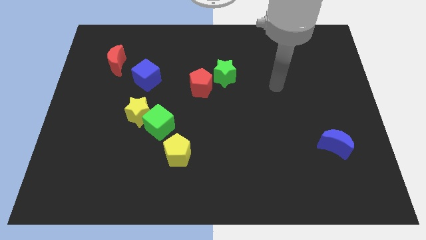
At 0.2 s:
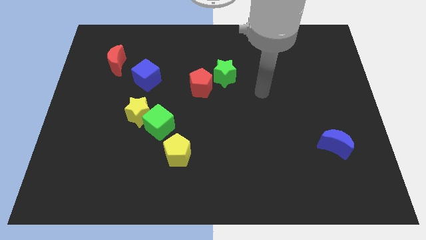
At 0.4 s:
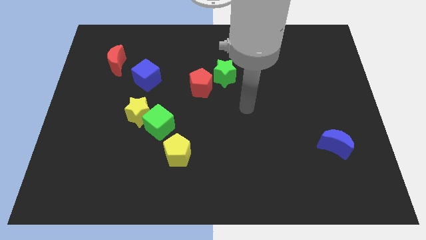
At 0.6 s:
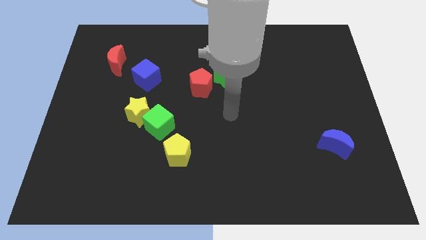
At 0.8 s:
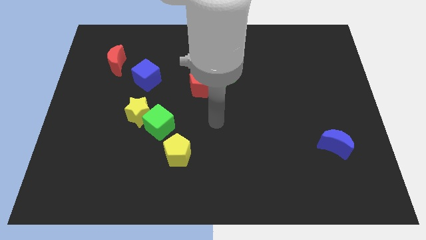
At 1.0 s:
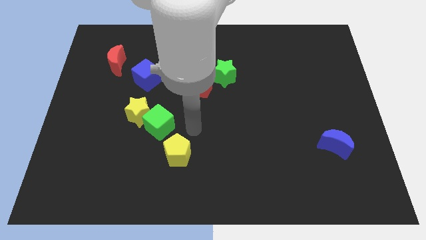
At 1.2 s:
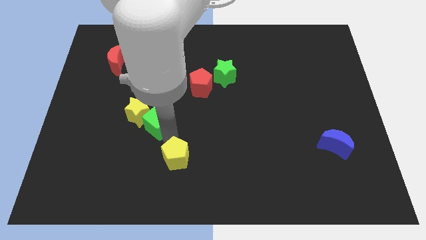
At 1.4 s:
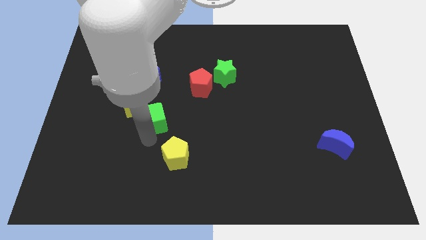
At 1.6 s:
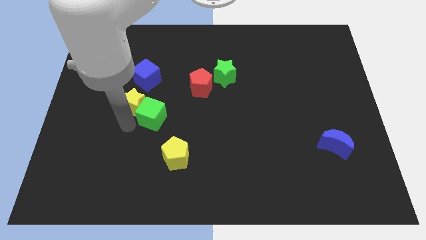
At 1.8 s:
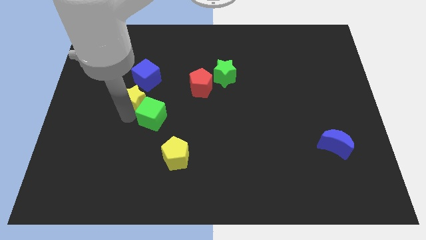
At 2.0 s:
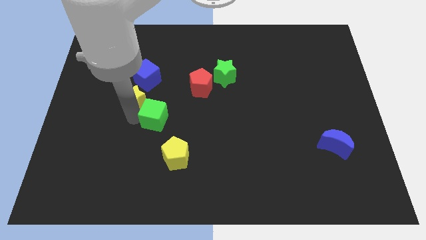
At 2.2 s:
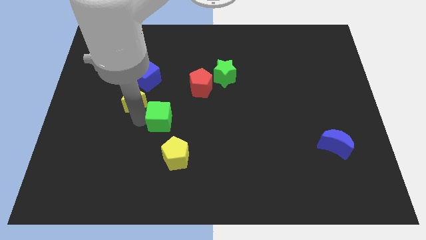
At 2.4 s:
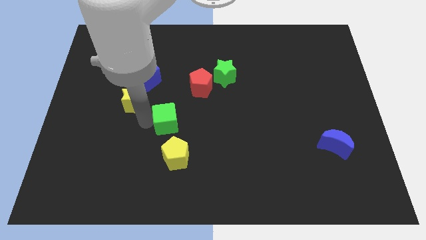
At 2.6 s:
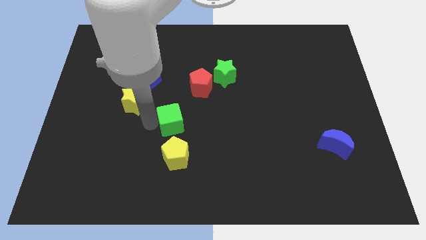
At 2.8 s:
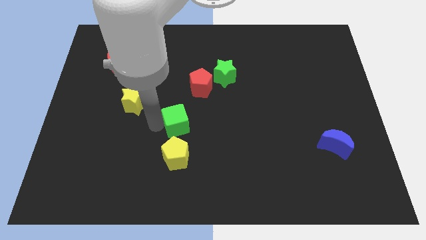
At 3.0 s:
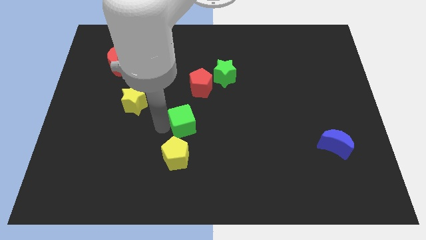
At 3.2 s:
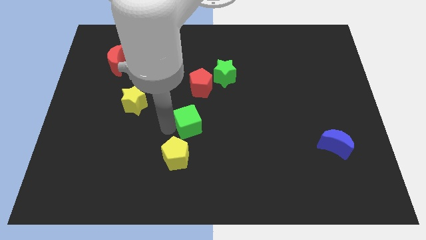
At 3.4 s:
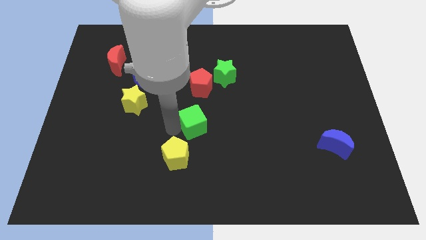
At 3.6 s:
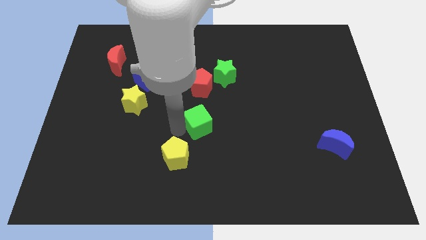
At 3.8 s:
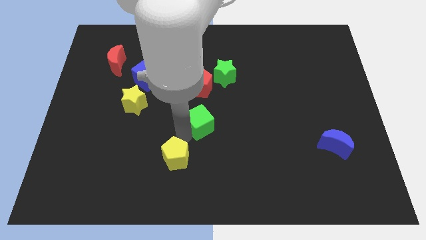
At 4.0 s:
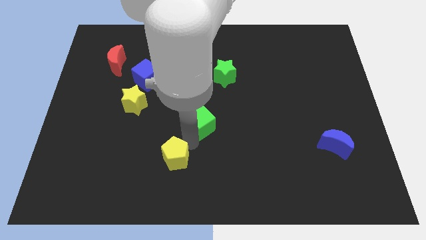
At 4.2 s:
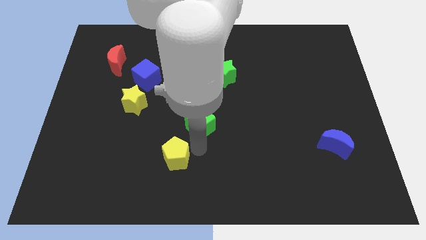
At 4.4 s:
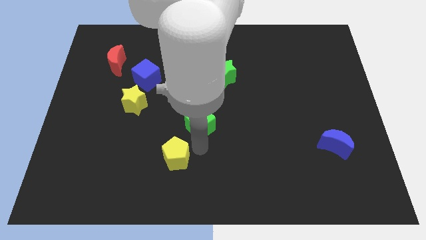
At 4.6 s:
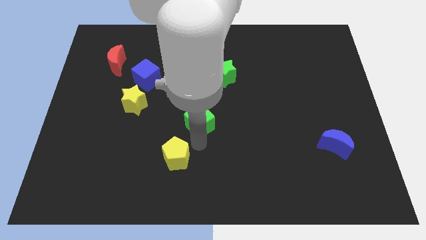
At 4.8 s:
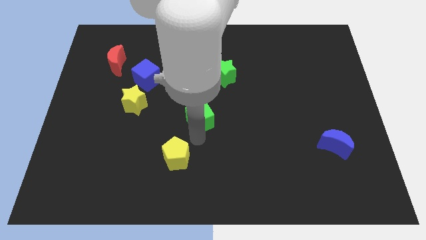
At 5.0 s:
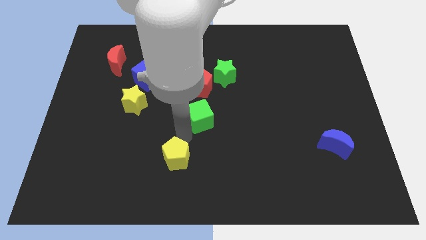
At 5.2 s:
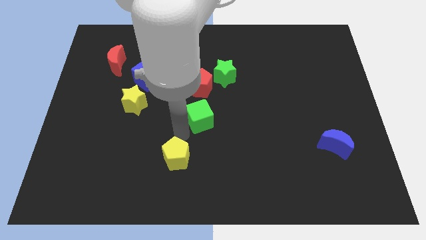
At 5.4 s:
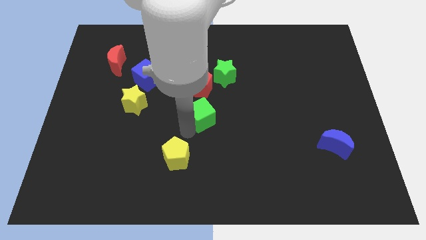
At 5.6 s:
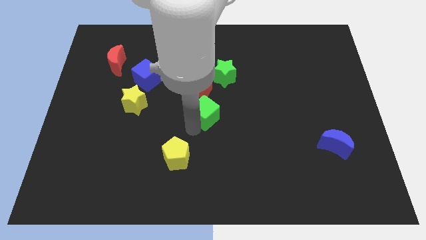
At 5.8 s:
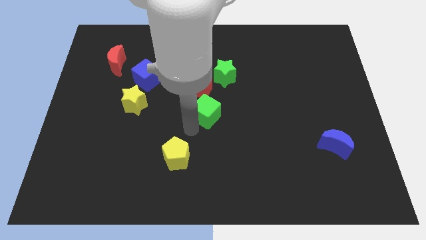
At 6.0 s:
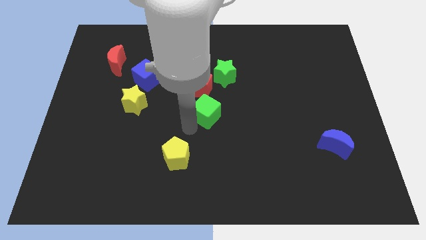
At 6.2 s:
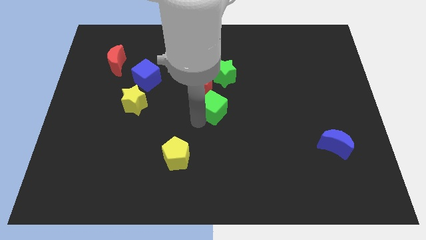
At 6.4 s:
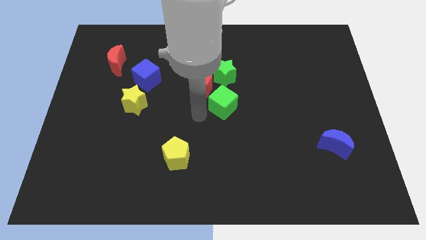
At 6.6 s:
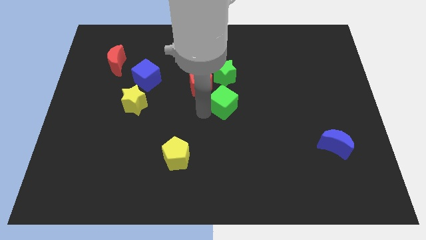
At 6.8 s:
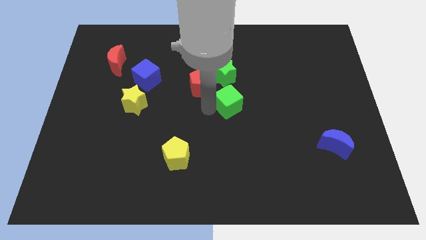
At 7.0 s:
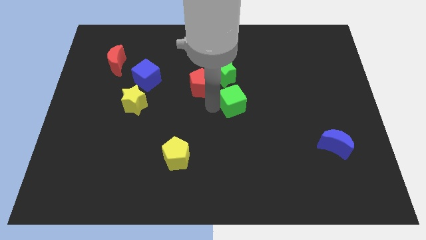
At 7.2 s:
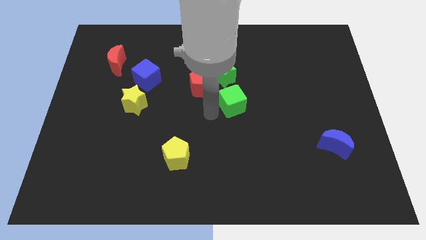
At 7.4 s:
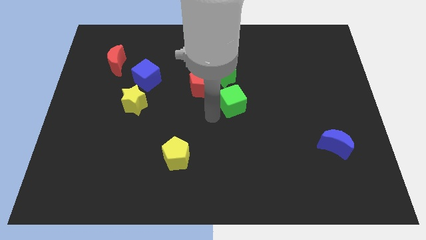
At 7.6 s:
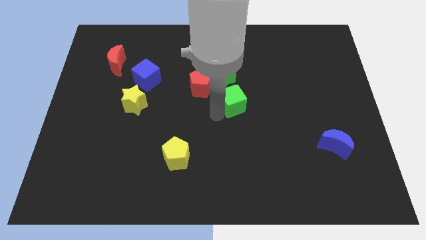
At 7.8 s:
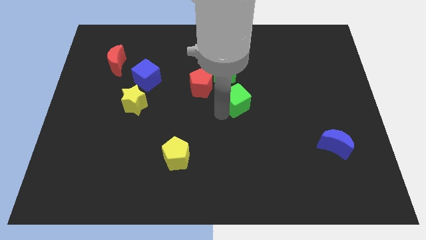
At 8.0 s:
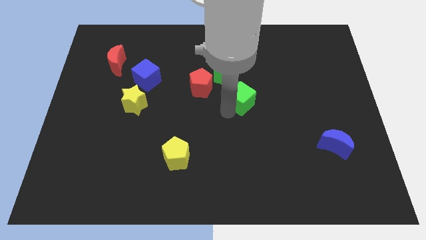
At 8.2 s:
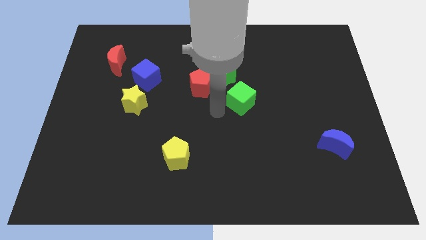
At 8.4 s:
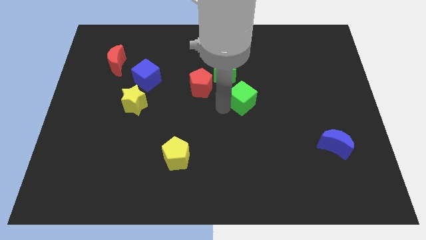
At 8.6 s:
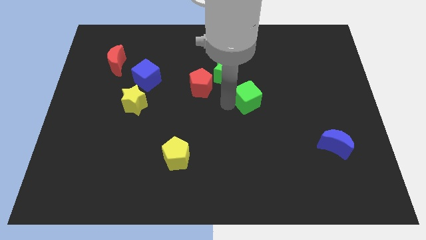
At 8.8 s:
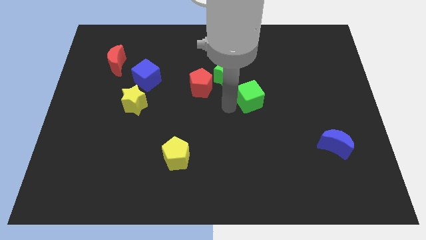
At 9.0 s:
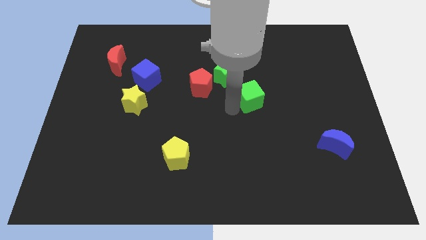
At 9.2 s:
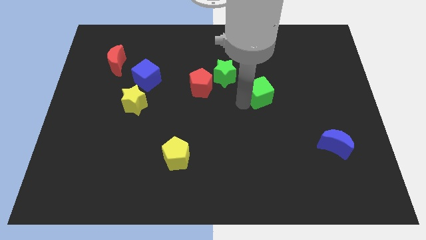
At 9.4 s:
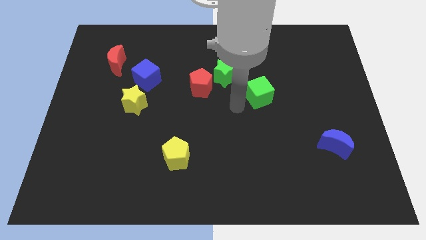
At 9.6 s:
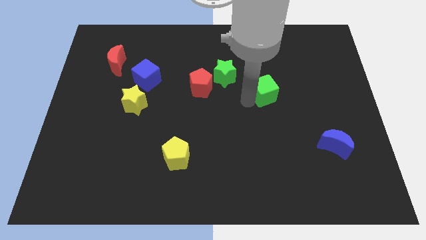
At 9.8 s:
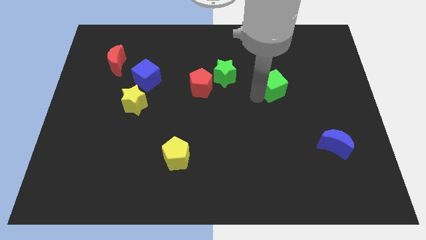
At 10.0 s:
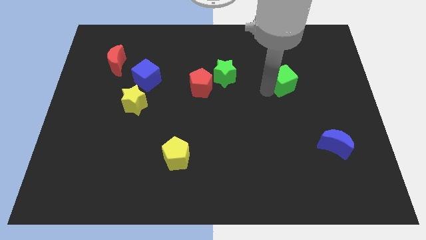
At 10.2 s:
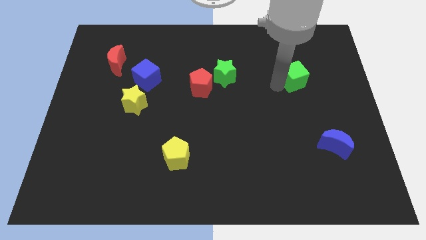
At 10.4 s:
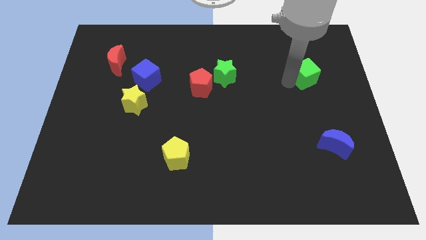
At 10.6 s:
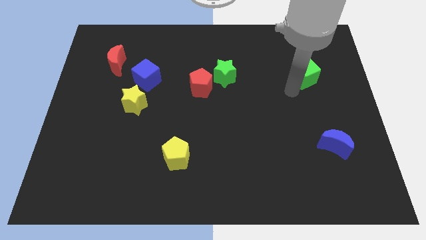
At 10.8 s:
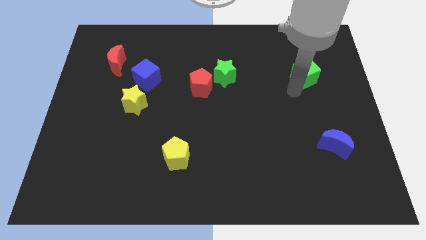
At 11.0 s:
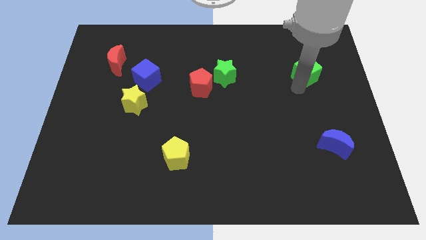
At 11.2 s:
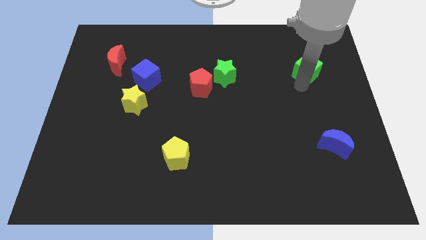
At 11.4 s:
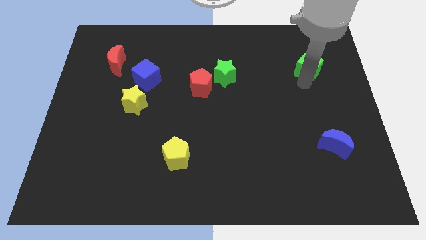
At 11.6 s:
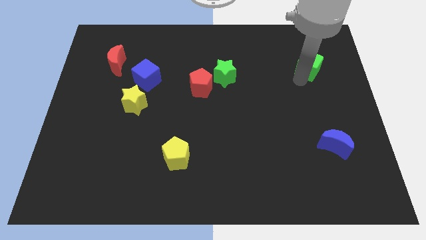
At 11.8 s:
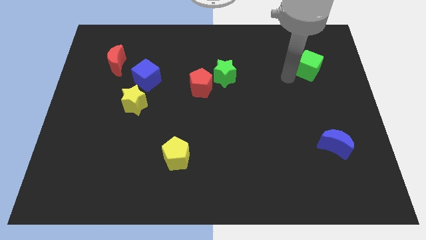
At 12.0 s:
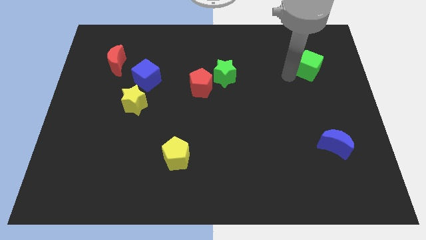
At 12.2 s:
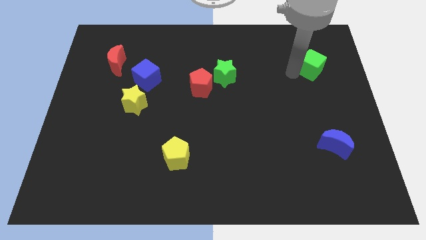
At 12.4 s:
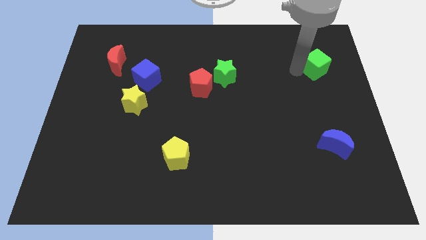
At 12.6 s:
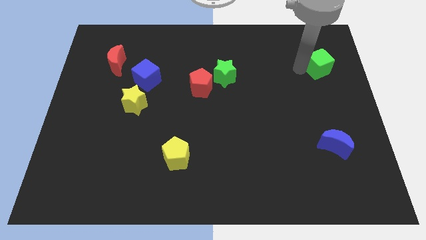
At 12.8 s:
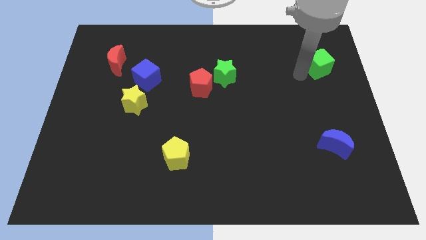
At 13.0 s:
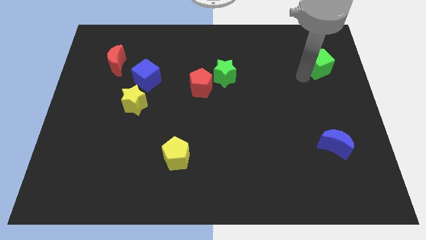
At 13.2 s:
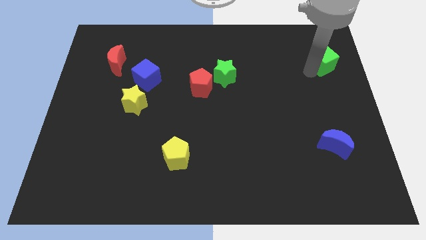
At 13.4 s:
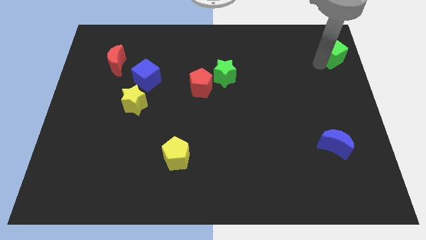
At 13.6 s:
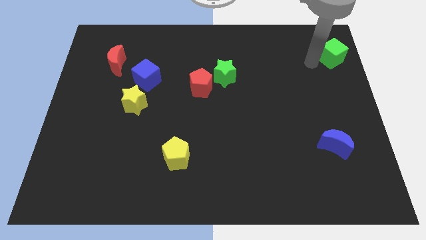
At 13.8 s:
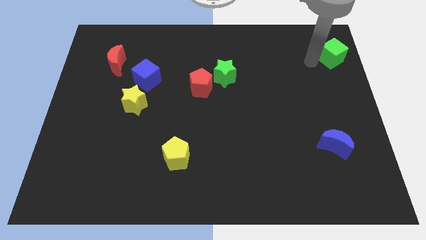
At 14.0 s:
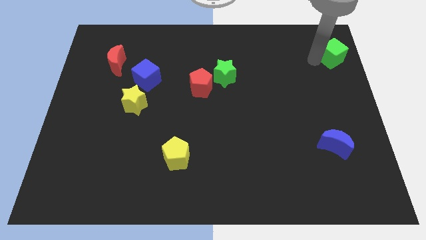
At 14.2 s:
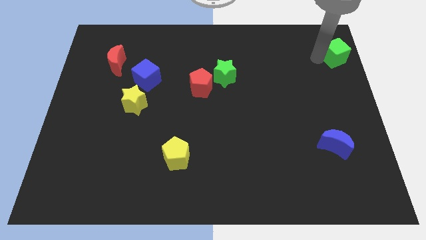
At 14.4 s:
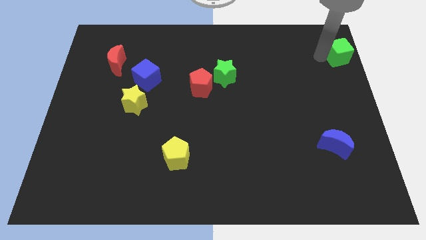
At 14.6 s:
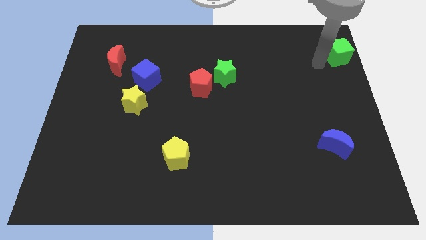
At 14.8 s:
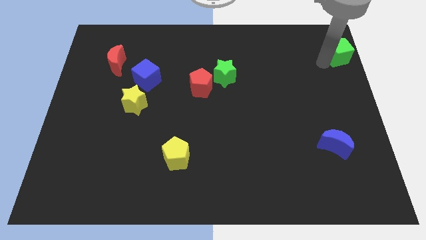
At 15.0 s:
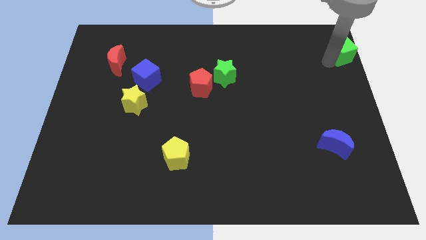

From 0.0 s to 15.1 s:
push the green cube to the upper right corner
